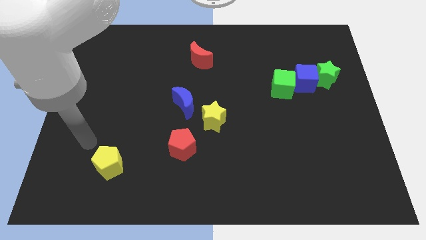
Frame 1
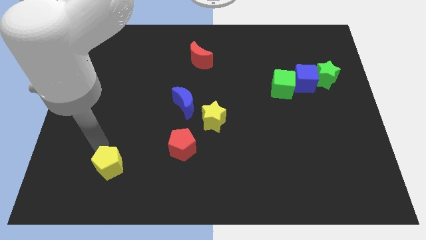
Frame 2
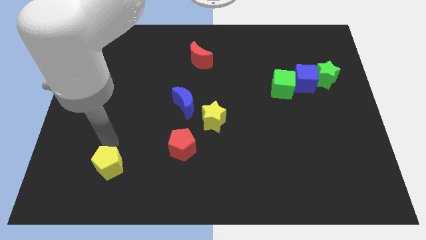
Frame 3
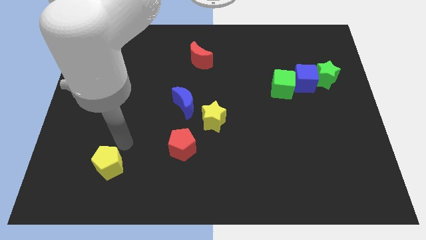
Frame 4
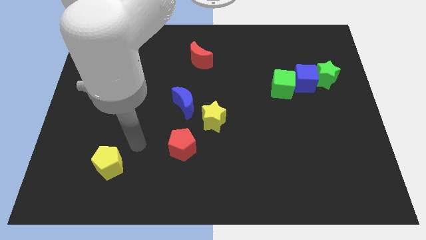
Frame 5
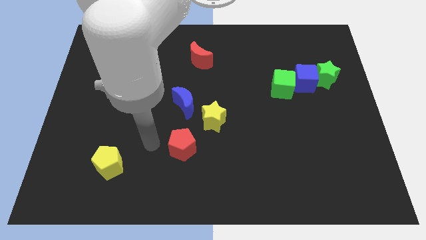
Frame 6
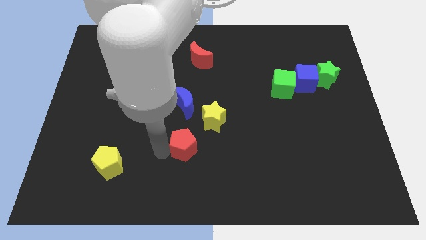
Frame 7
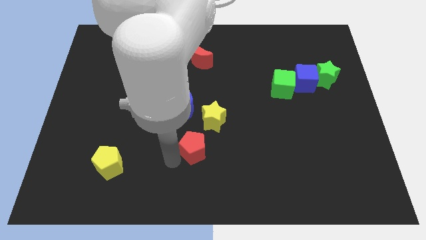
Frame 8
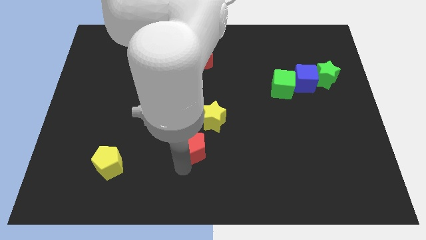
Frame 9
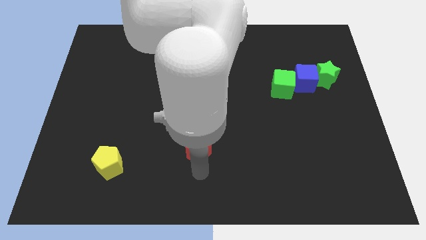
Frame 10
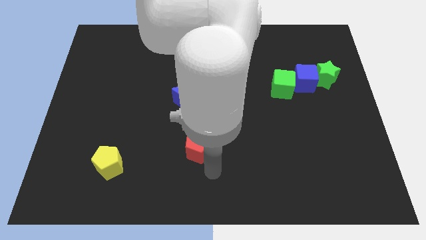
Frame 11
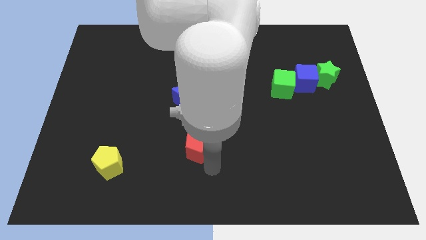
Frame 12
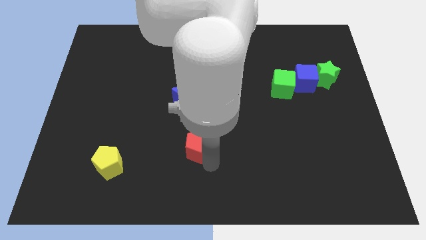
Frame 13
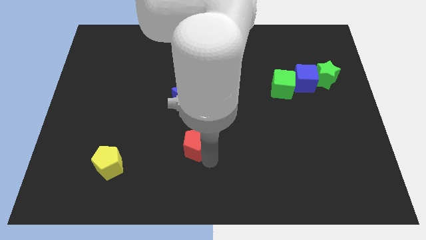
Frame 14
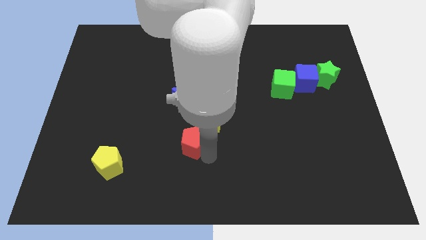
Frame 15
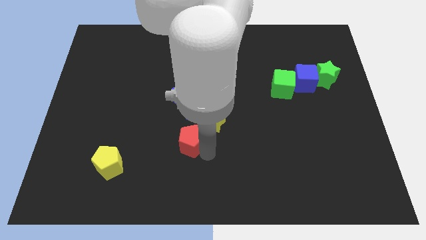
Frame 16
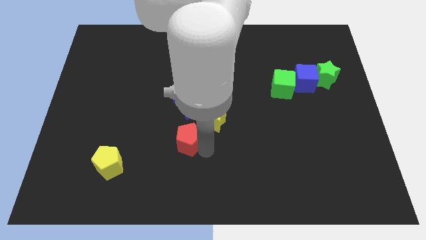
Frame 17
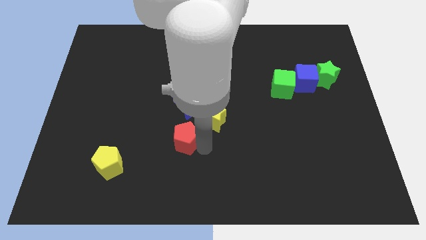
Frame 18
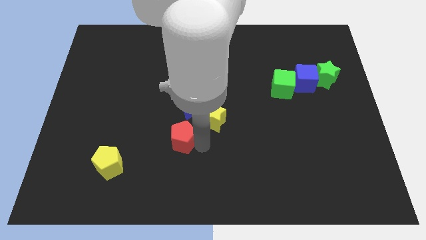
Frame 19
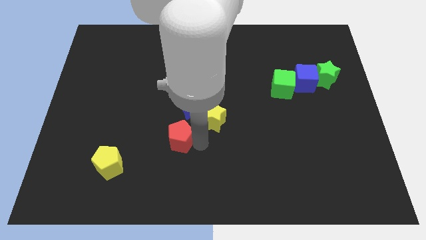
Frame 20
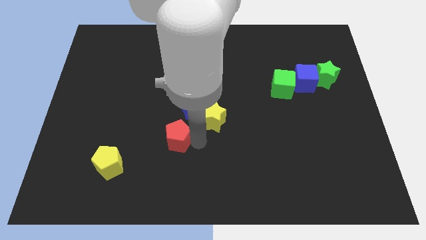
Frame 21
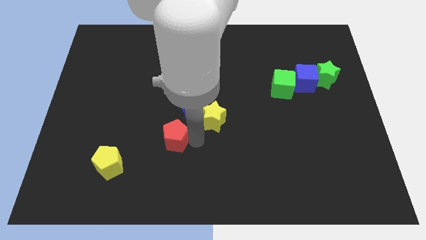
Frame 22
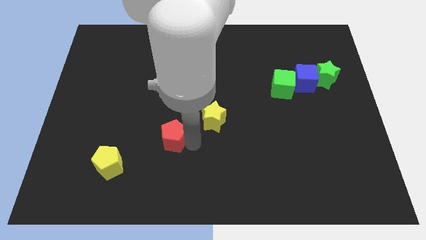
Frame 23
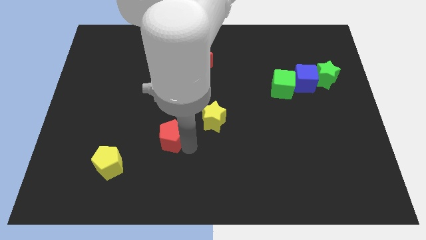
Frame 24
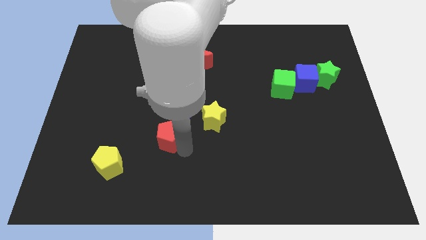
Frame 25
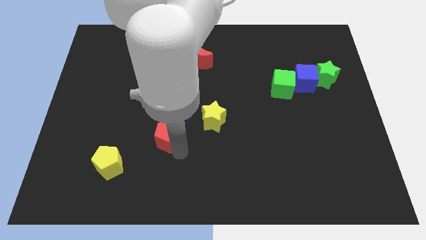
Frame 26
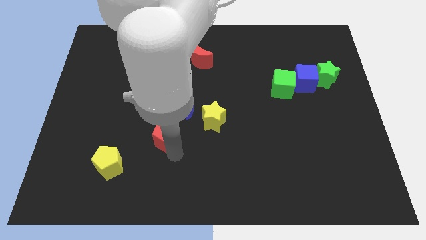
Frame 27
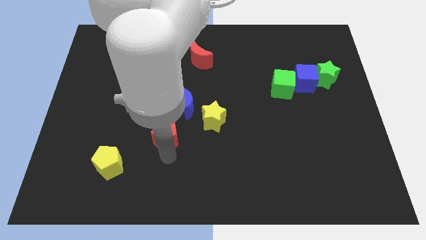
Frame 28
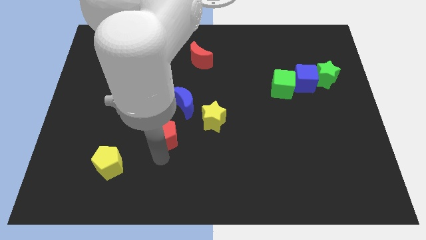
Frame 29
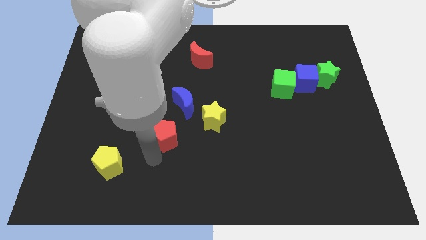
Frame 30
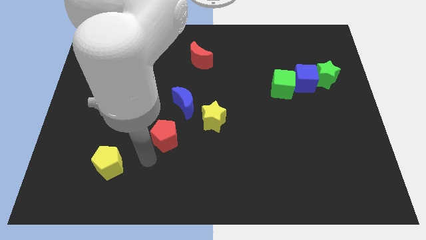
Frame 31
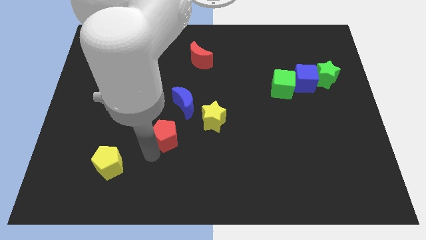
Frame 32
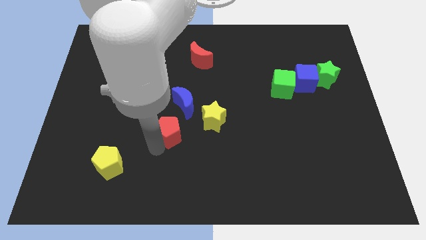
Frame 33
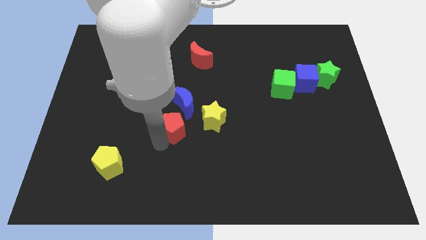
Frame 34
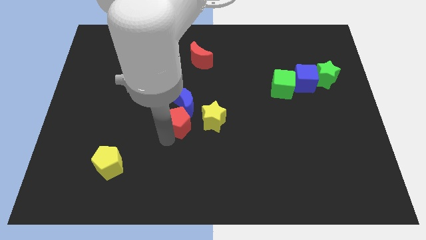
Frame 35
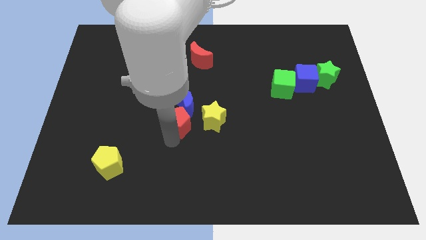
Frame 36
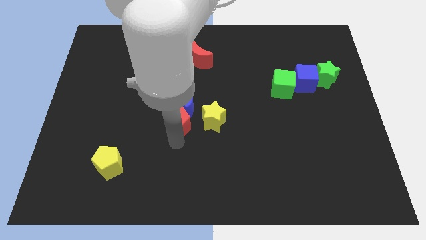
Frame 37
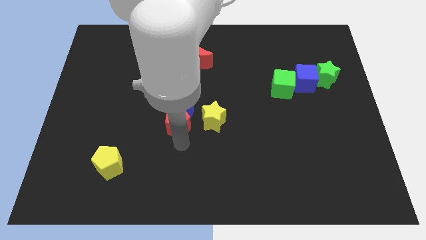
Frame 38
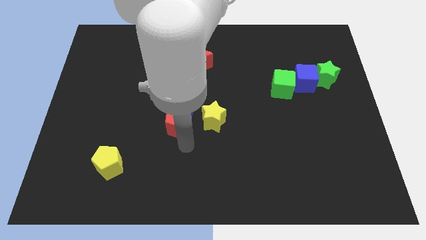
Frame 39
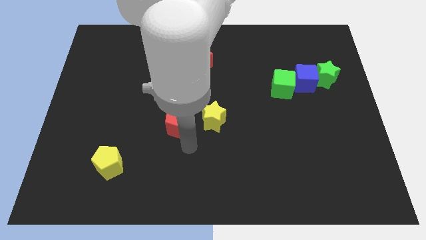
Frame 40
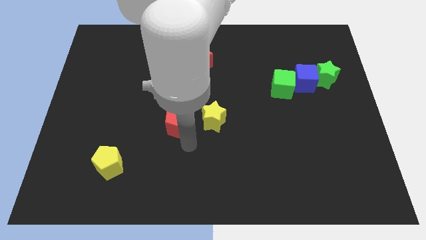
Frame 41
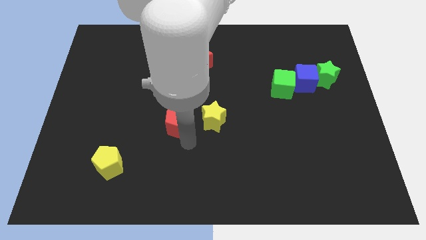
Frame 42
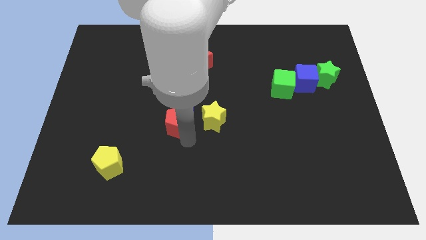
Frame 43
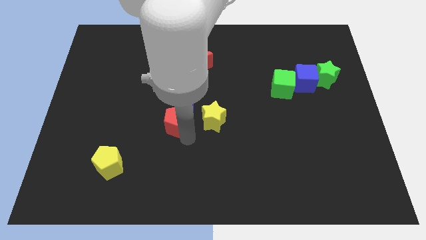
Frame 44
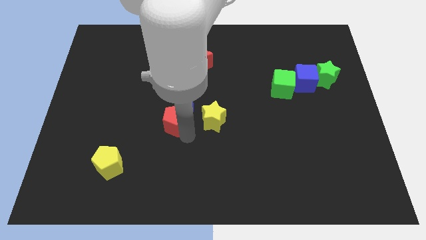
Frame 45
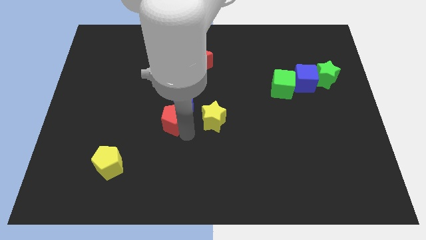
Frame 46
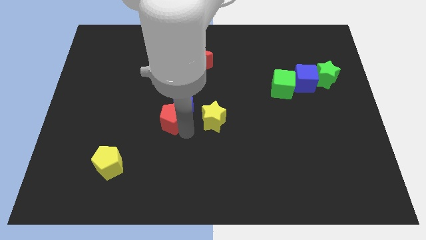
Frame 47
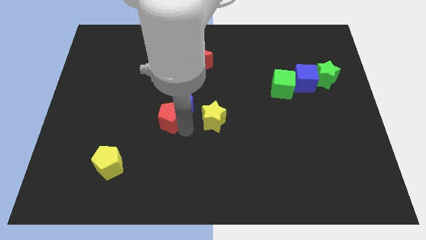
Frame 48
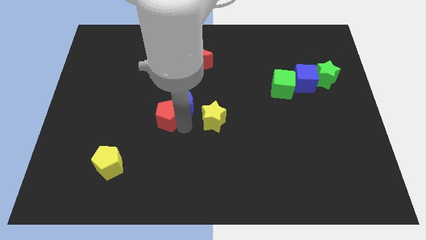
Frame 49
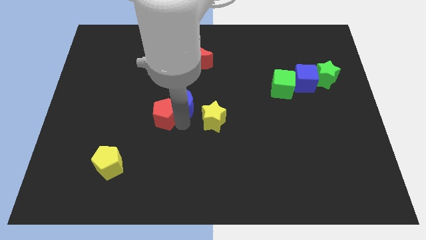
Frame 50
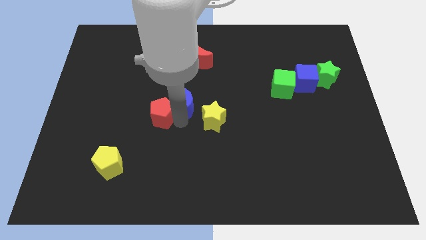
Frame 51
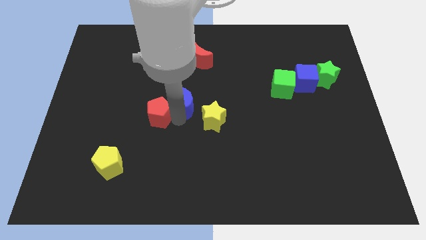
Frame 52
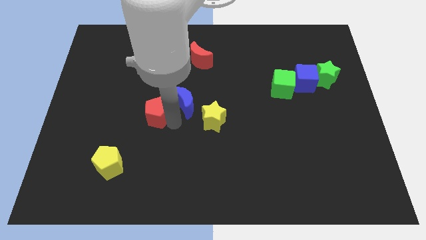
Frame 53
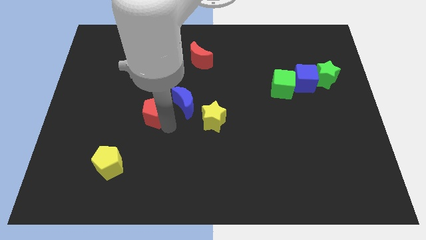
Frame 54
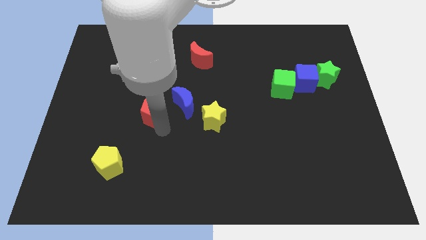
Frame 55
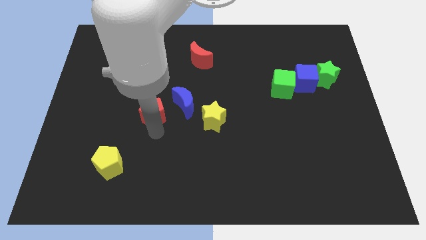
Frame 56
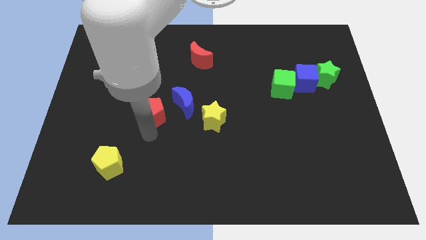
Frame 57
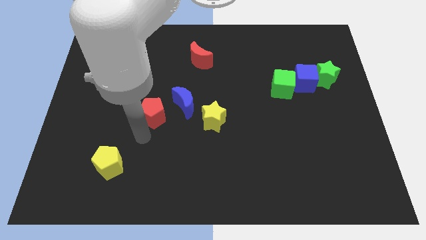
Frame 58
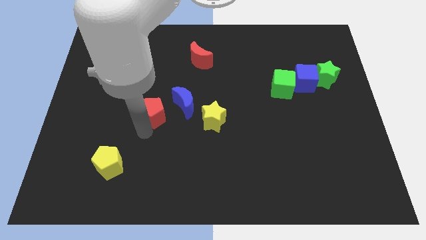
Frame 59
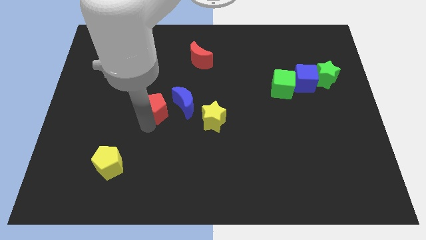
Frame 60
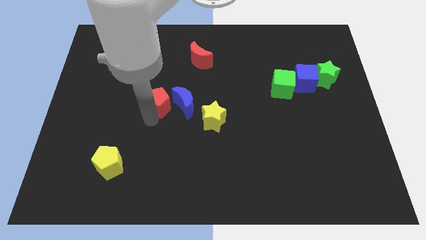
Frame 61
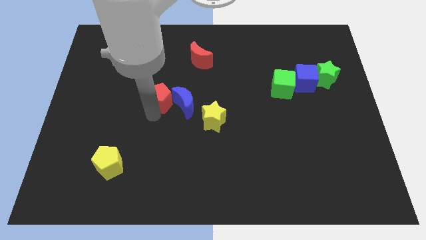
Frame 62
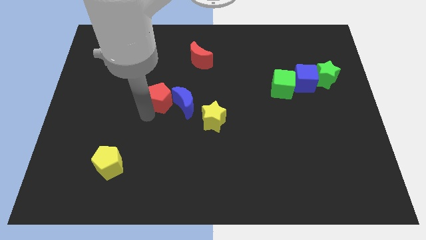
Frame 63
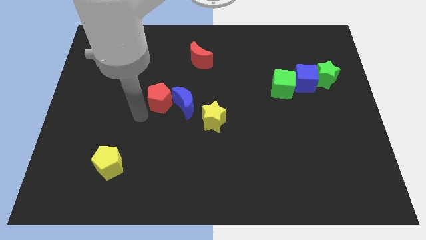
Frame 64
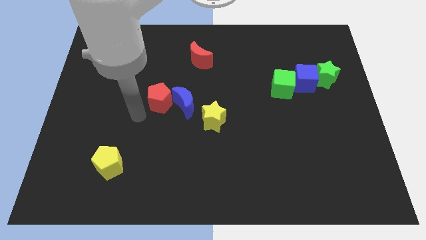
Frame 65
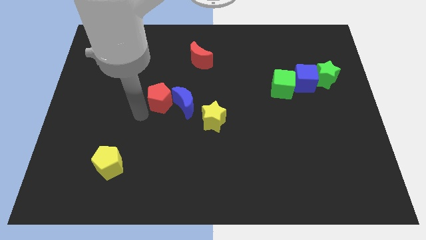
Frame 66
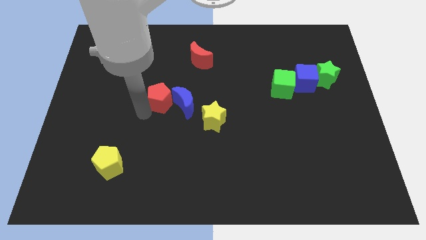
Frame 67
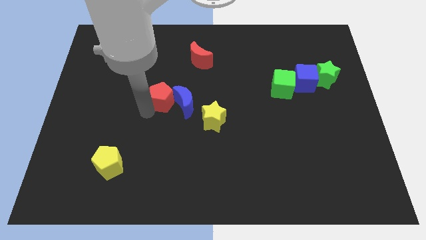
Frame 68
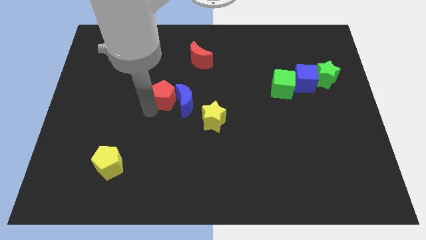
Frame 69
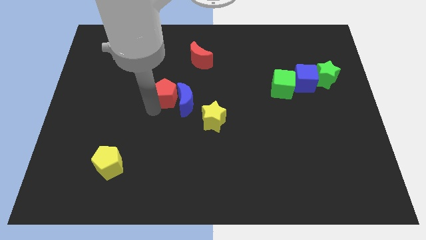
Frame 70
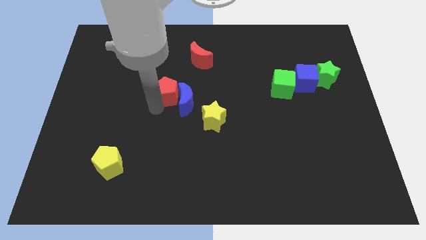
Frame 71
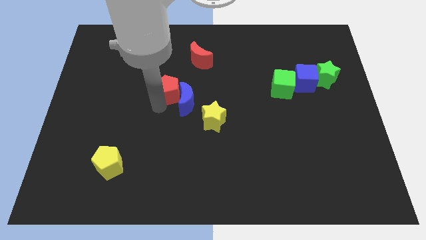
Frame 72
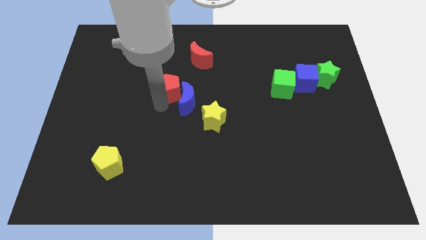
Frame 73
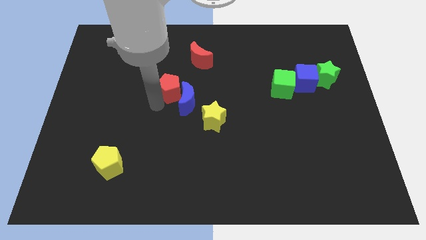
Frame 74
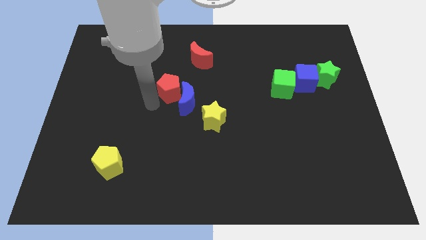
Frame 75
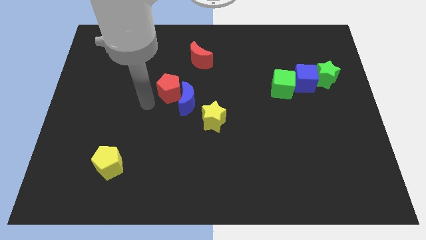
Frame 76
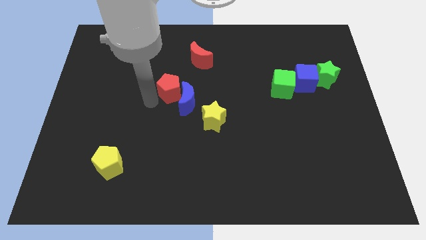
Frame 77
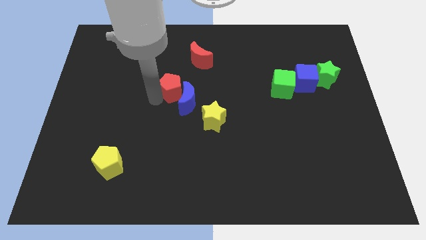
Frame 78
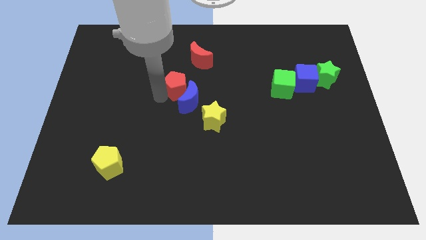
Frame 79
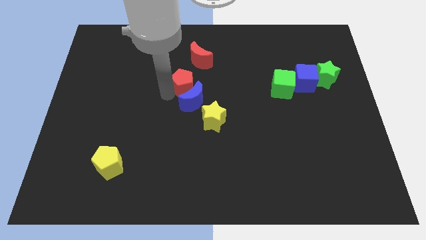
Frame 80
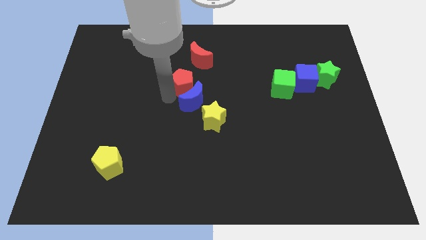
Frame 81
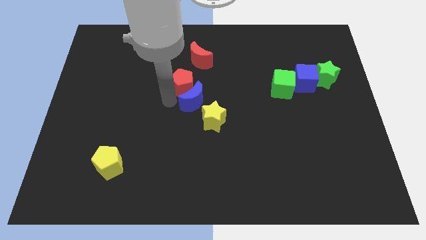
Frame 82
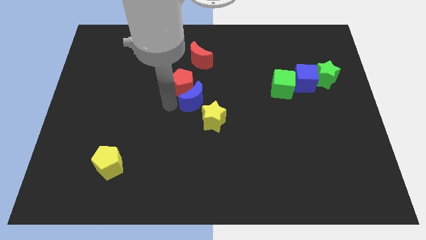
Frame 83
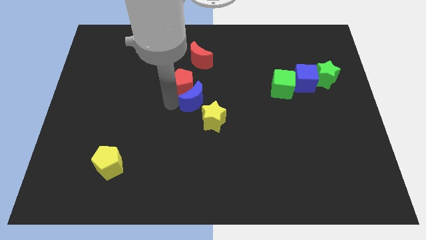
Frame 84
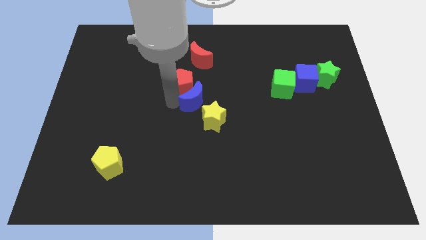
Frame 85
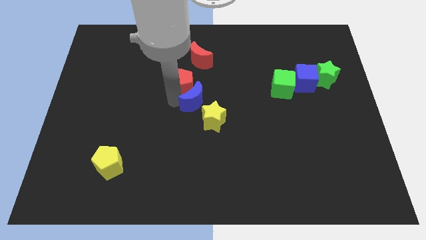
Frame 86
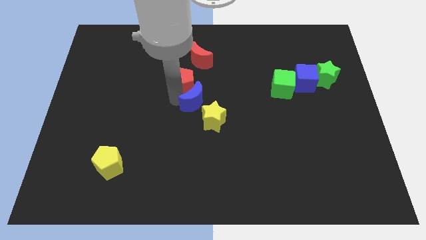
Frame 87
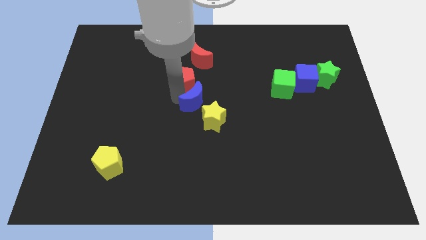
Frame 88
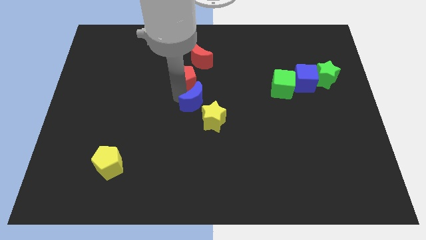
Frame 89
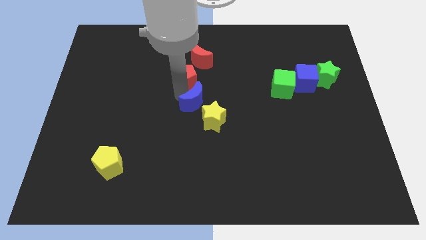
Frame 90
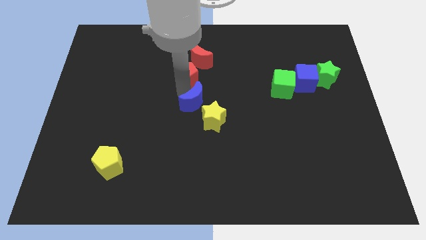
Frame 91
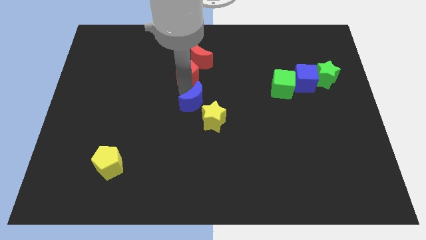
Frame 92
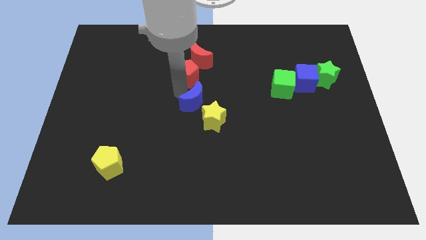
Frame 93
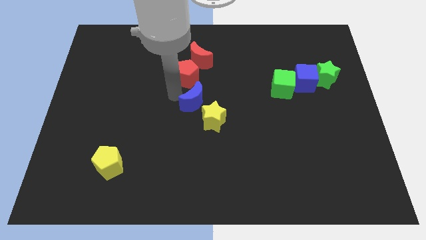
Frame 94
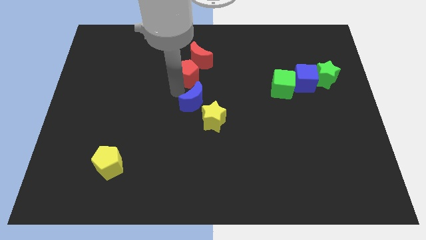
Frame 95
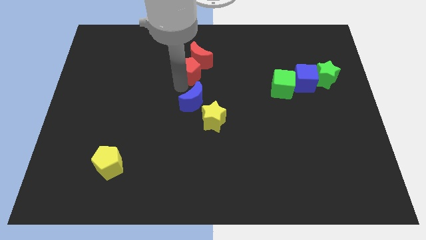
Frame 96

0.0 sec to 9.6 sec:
push the red pentagon towards the red moon
